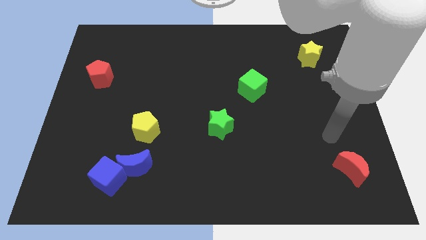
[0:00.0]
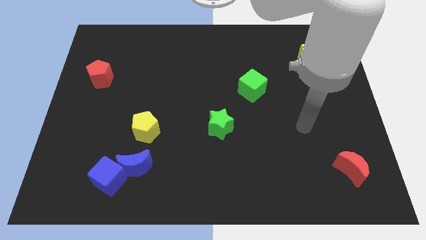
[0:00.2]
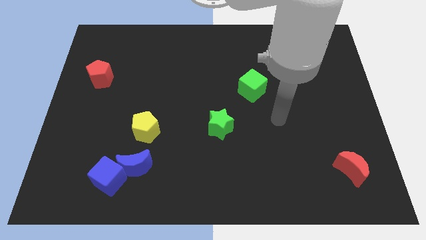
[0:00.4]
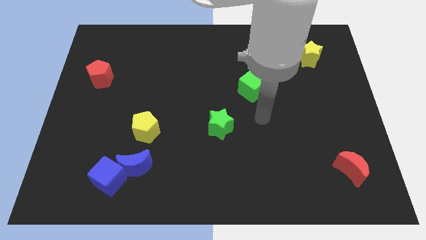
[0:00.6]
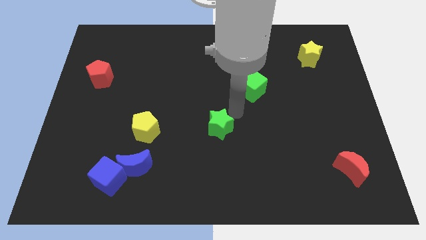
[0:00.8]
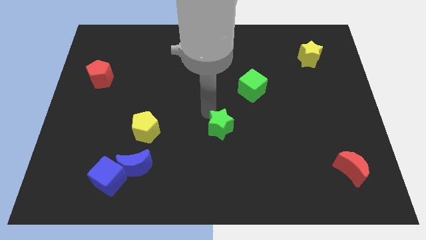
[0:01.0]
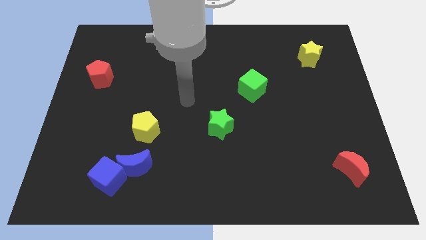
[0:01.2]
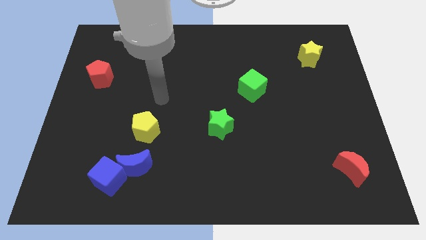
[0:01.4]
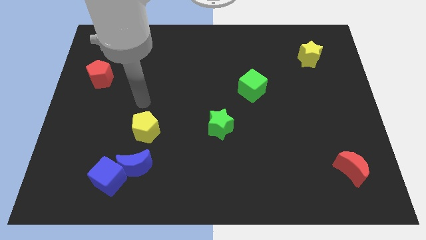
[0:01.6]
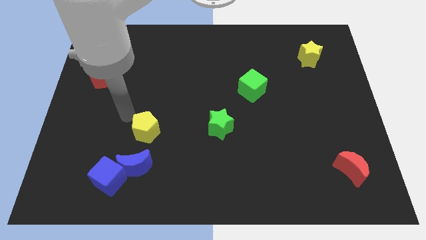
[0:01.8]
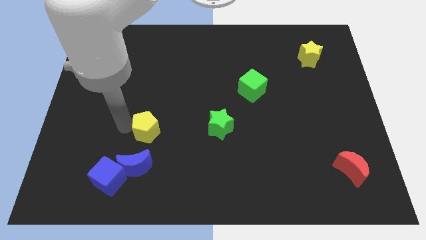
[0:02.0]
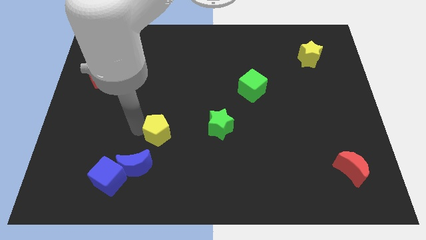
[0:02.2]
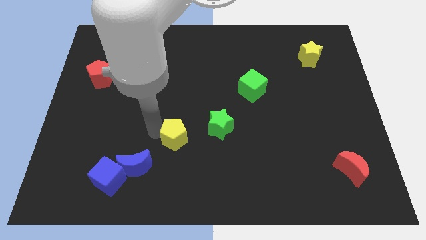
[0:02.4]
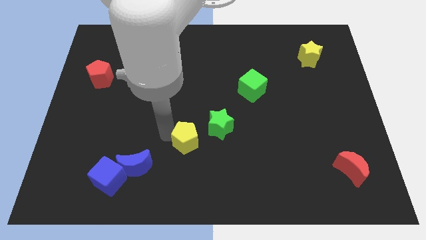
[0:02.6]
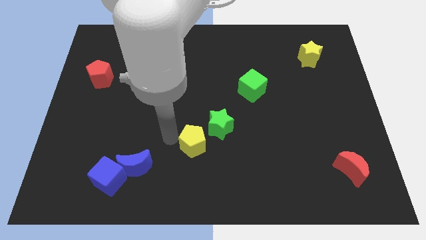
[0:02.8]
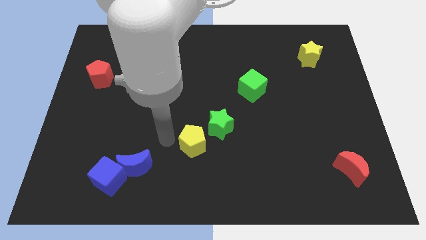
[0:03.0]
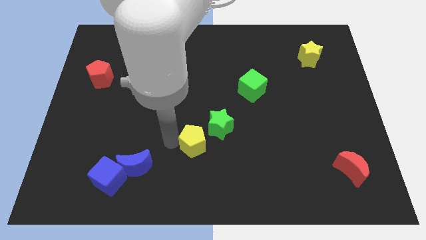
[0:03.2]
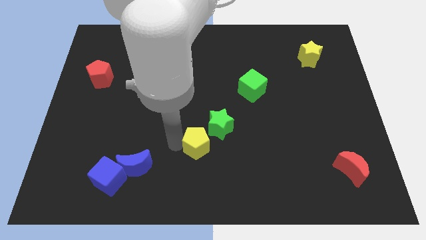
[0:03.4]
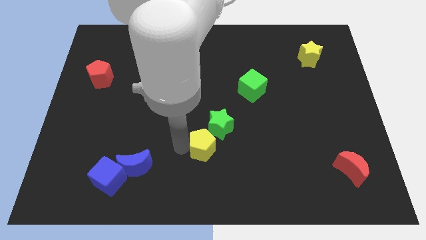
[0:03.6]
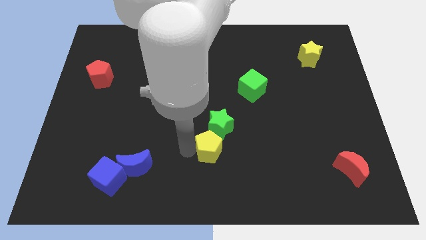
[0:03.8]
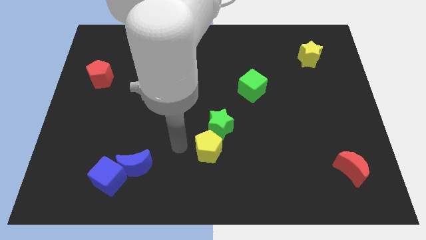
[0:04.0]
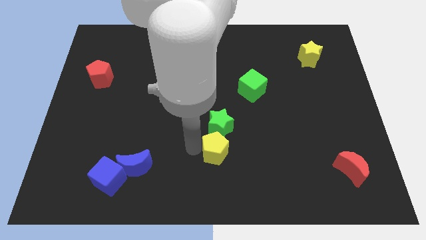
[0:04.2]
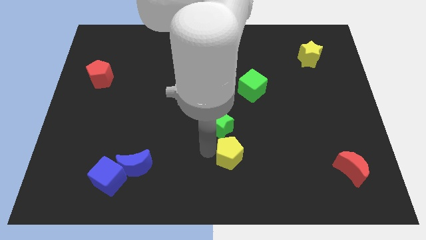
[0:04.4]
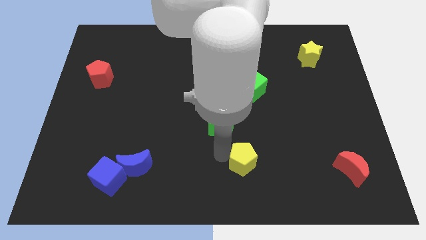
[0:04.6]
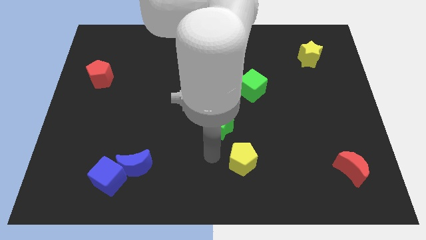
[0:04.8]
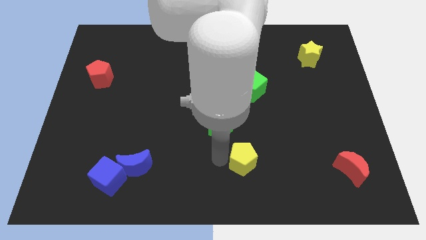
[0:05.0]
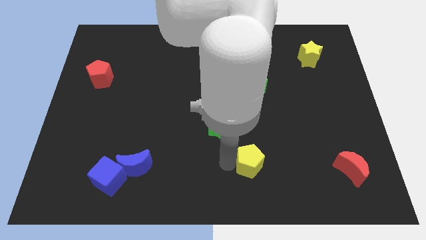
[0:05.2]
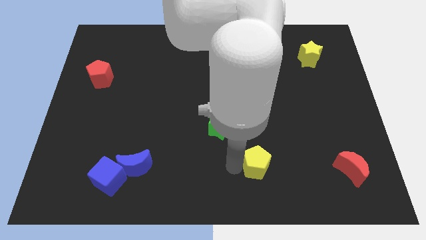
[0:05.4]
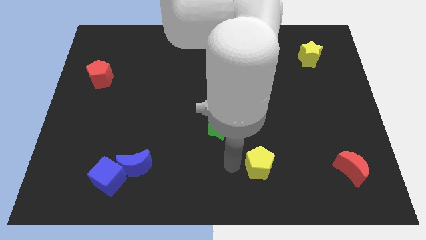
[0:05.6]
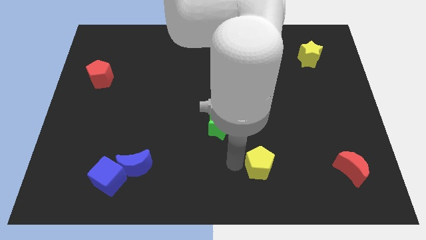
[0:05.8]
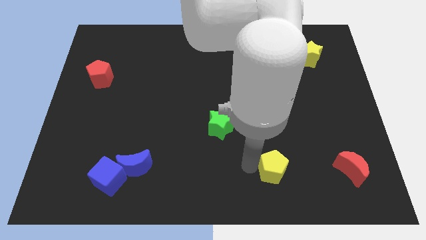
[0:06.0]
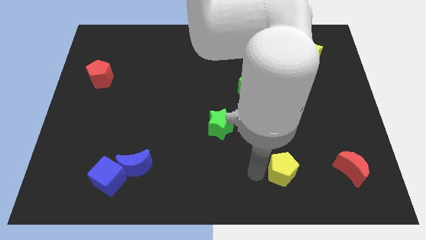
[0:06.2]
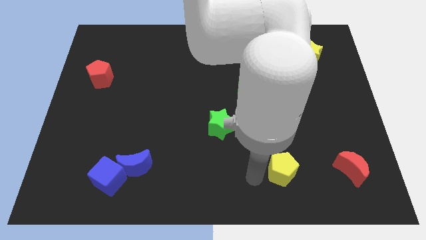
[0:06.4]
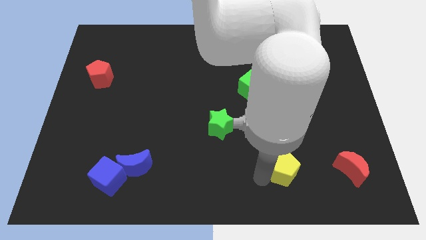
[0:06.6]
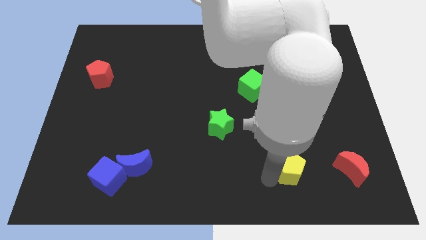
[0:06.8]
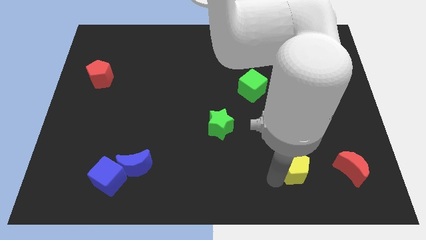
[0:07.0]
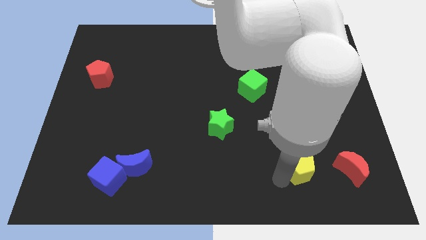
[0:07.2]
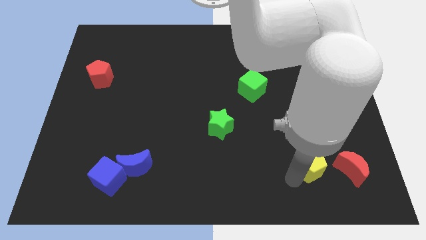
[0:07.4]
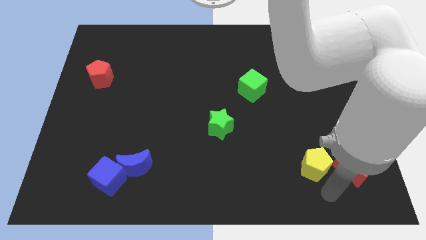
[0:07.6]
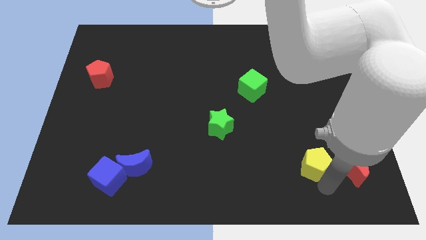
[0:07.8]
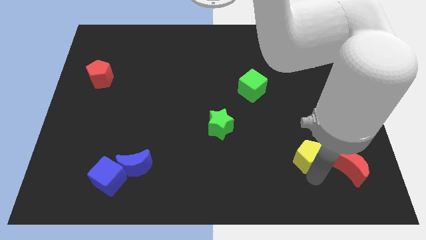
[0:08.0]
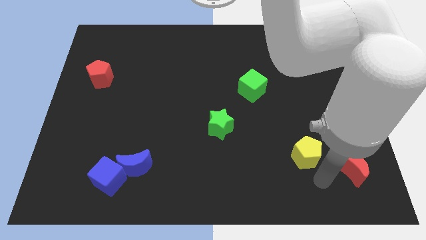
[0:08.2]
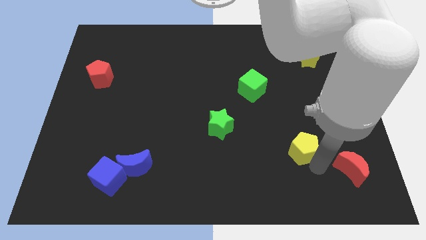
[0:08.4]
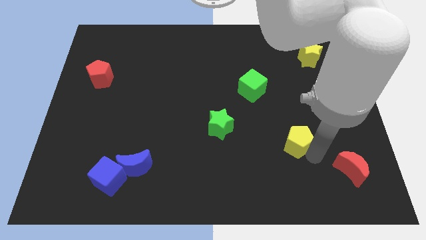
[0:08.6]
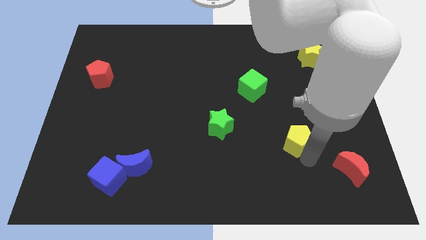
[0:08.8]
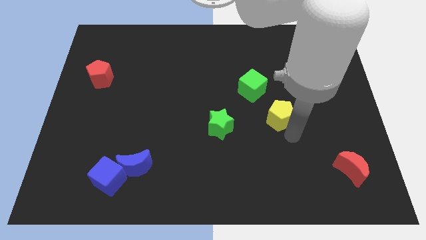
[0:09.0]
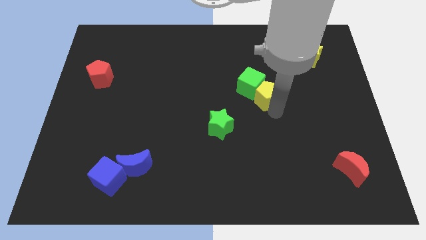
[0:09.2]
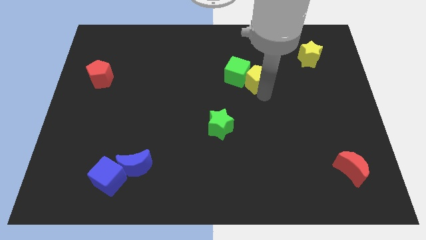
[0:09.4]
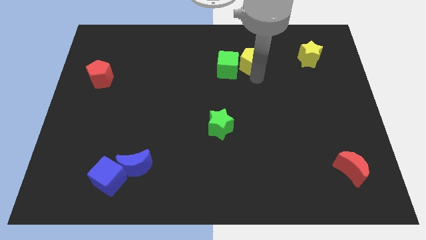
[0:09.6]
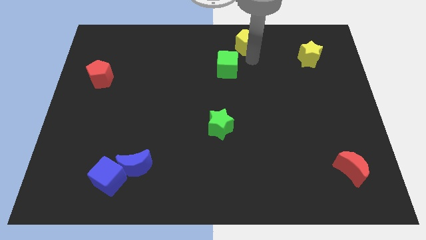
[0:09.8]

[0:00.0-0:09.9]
put the yellow pentagon to the top

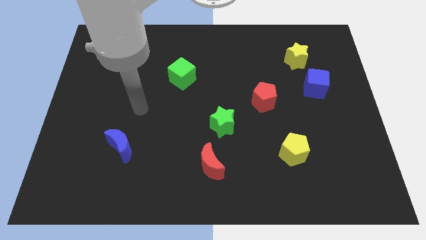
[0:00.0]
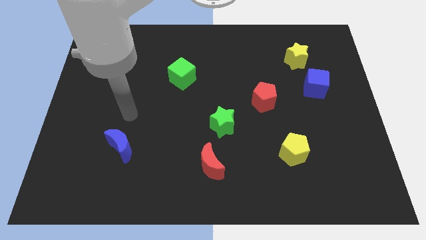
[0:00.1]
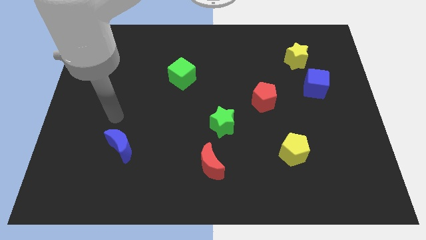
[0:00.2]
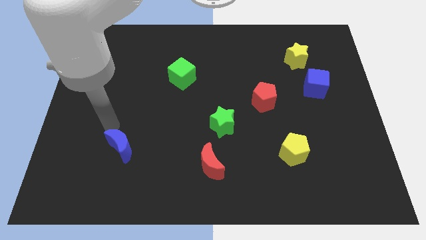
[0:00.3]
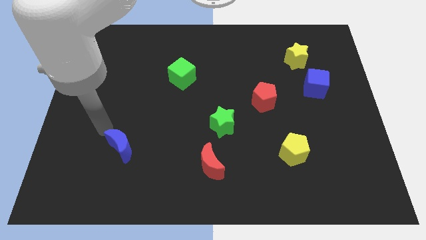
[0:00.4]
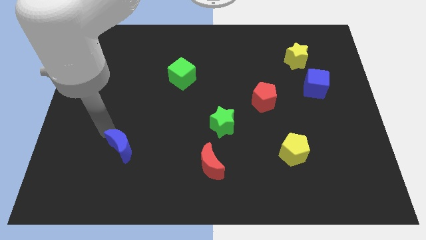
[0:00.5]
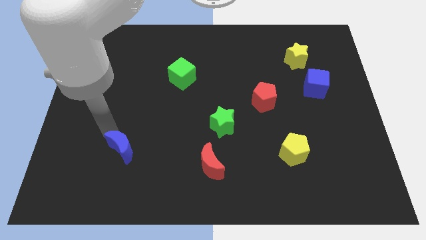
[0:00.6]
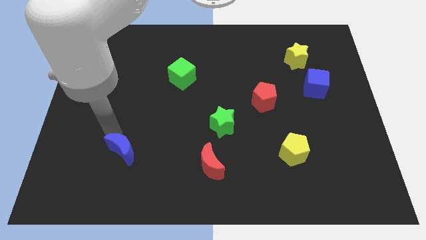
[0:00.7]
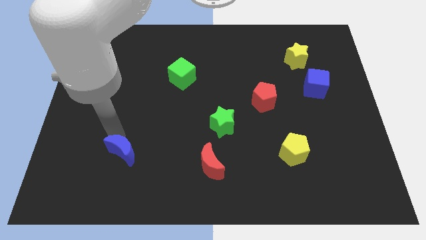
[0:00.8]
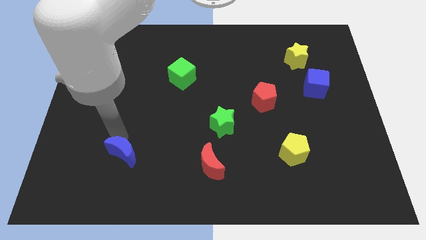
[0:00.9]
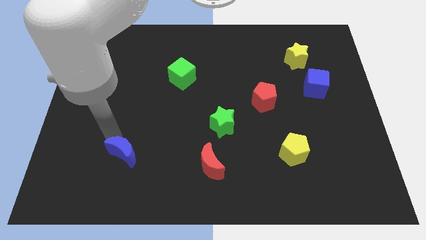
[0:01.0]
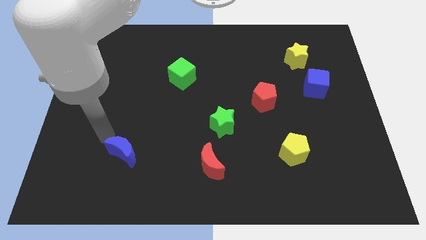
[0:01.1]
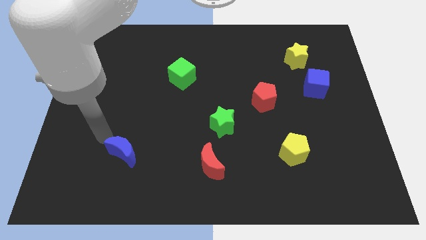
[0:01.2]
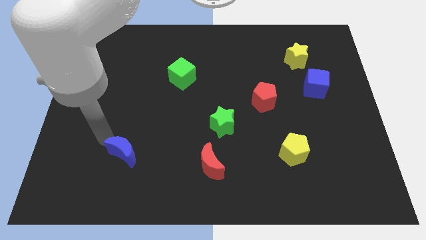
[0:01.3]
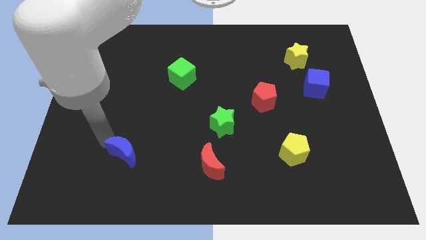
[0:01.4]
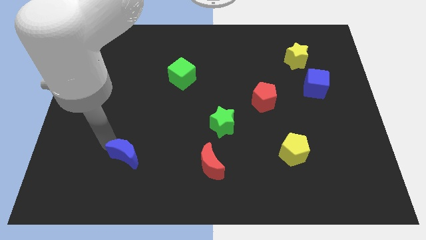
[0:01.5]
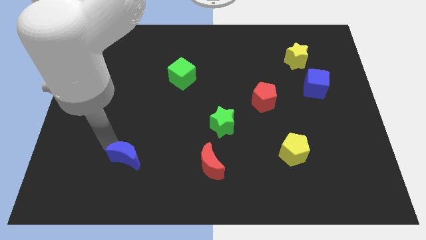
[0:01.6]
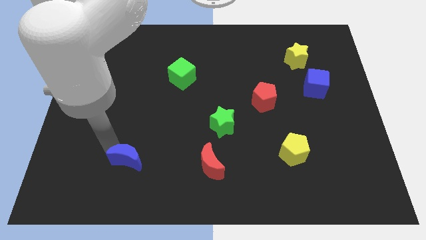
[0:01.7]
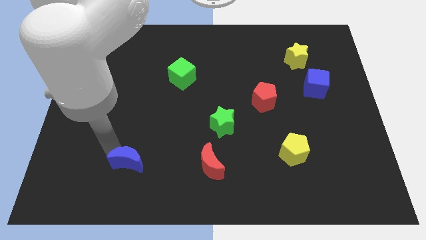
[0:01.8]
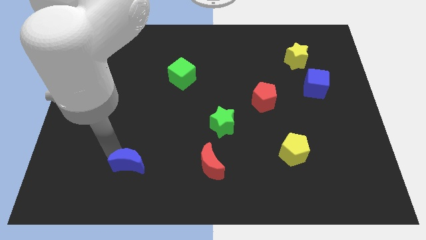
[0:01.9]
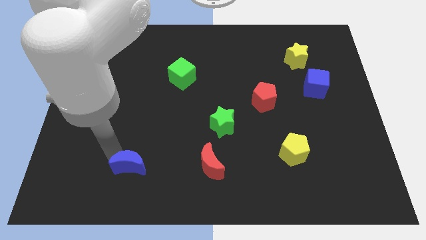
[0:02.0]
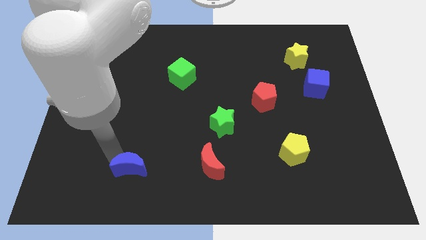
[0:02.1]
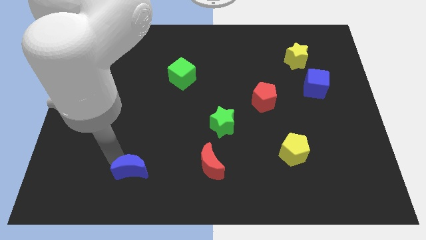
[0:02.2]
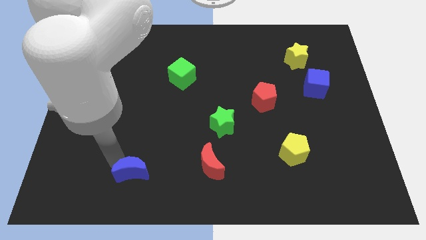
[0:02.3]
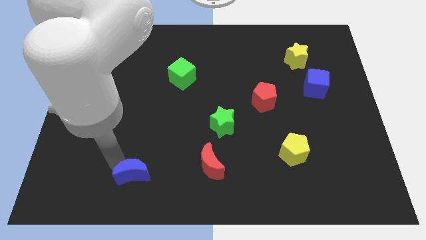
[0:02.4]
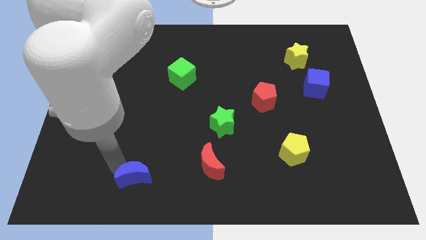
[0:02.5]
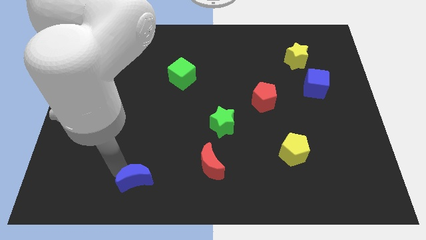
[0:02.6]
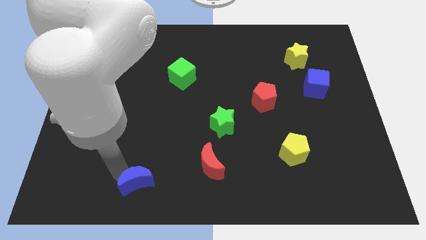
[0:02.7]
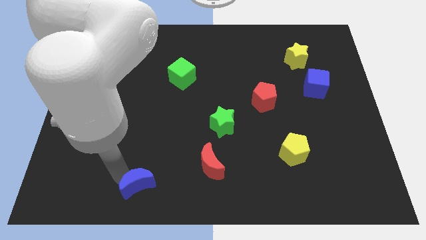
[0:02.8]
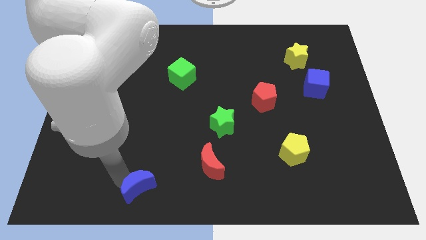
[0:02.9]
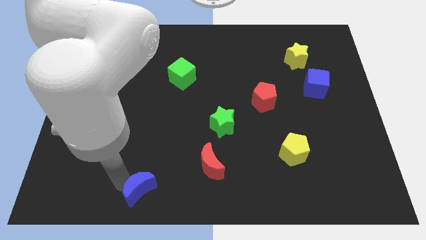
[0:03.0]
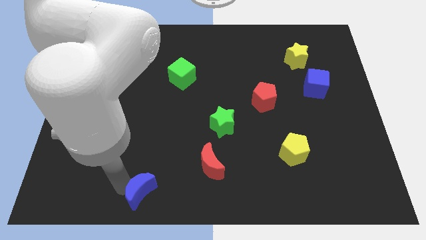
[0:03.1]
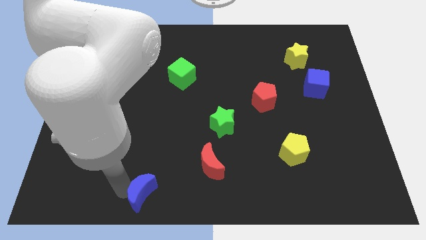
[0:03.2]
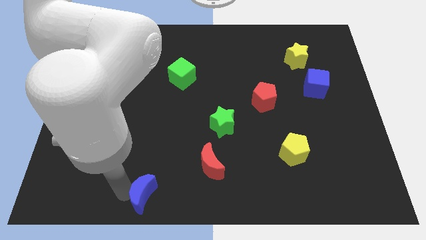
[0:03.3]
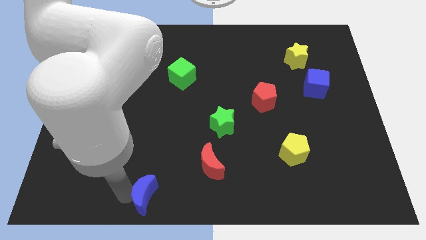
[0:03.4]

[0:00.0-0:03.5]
slide the blue moon to the bottom side
